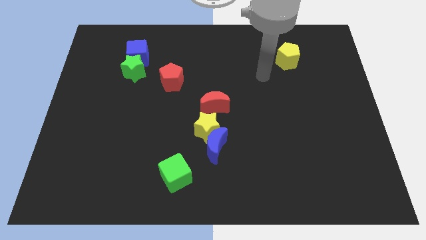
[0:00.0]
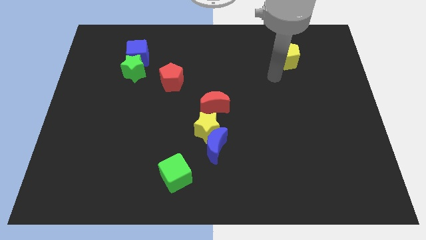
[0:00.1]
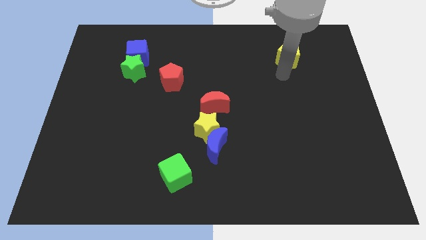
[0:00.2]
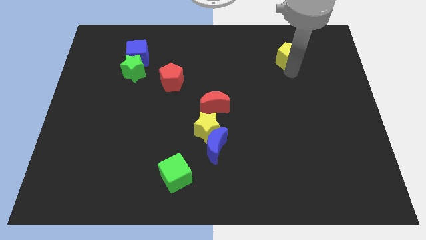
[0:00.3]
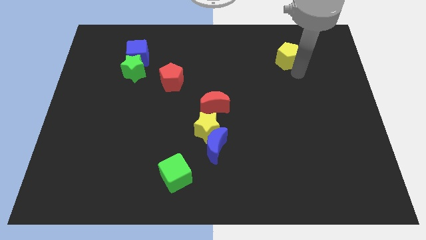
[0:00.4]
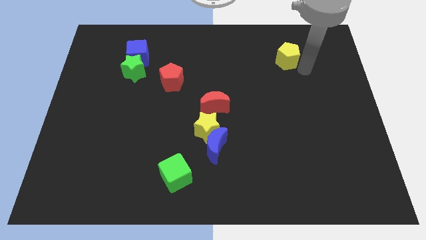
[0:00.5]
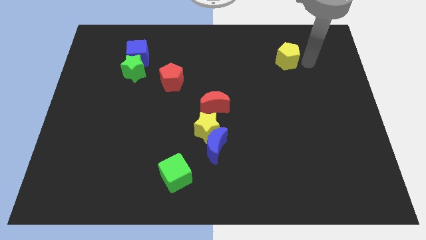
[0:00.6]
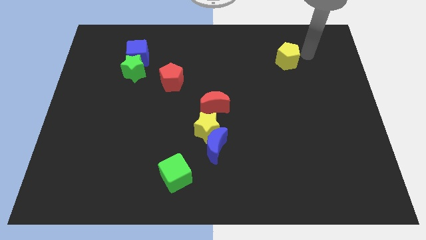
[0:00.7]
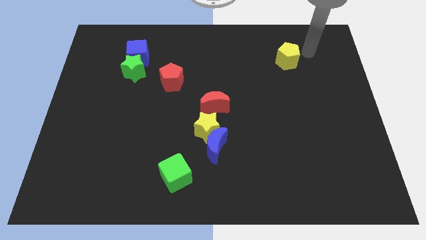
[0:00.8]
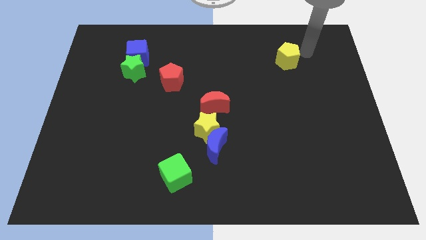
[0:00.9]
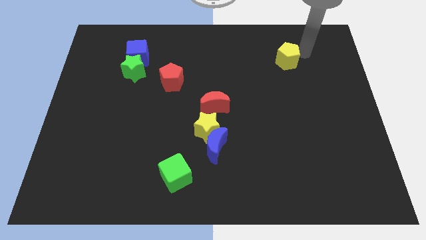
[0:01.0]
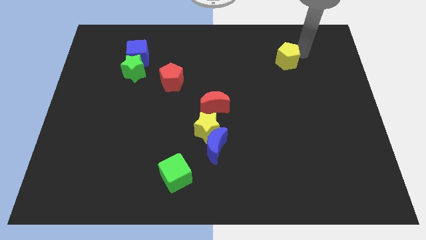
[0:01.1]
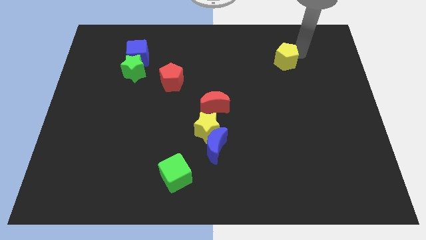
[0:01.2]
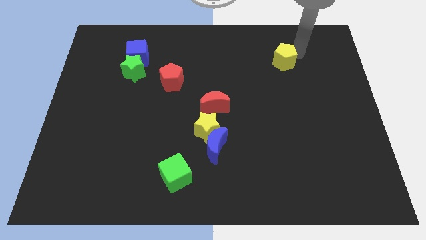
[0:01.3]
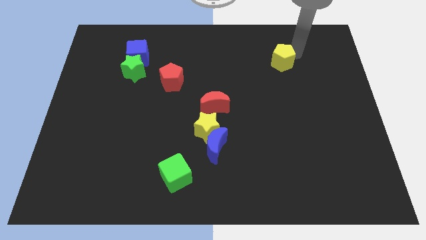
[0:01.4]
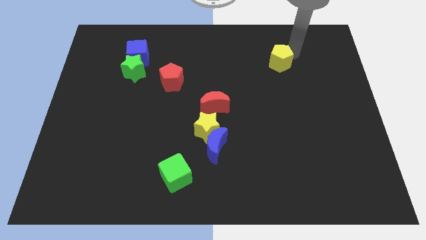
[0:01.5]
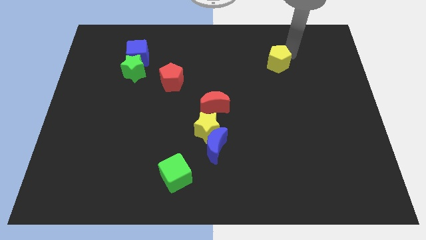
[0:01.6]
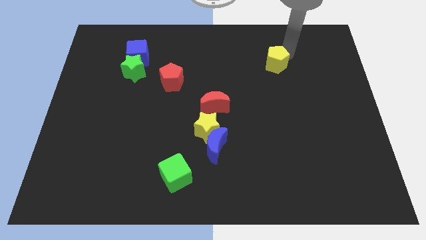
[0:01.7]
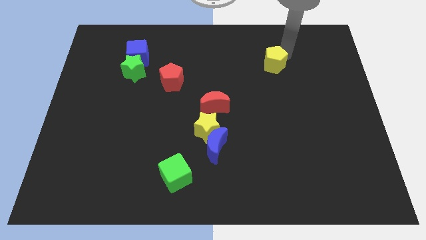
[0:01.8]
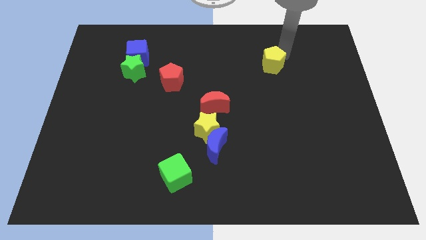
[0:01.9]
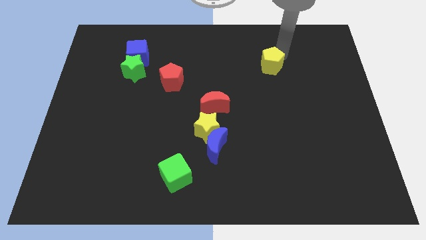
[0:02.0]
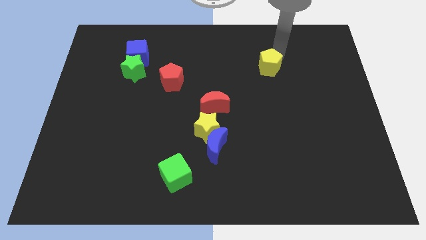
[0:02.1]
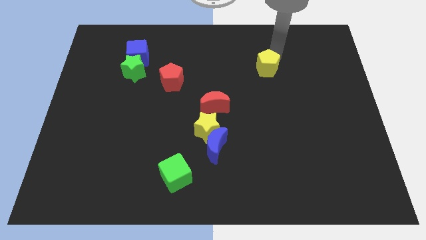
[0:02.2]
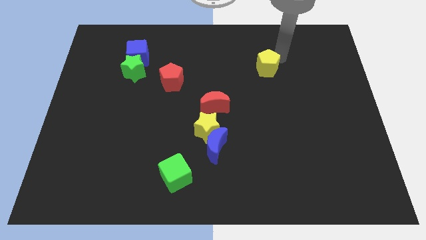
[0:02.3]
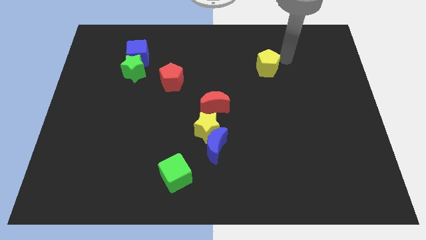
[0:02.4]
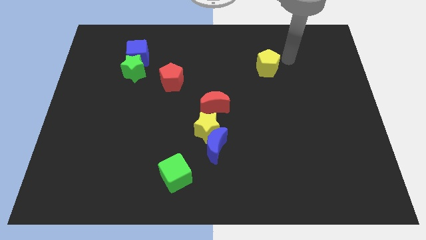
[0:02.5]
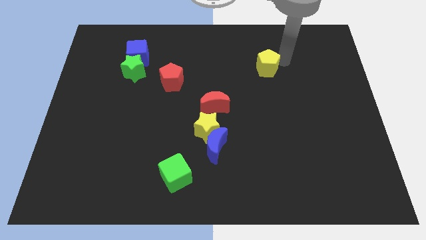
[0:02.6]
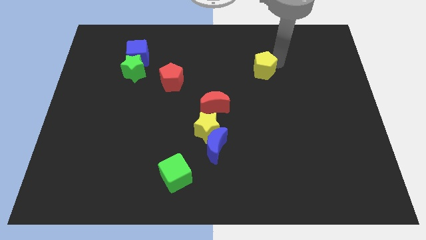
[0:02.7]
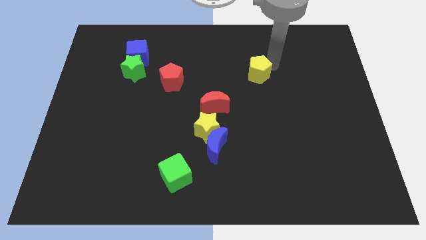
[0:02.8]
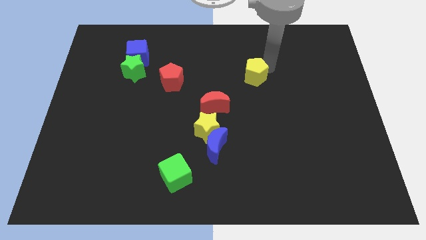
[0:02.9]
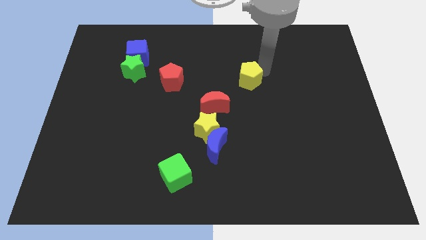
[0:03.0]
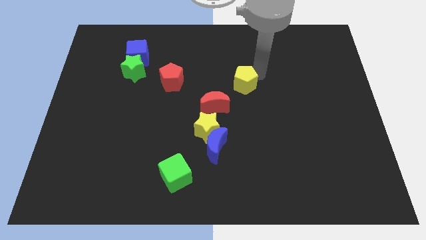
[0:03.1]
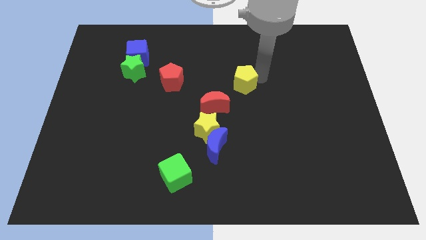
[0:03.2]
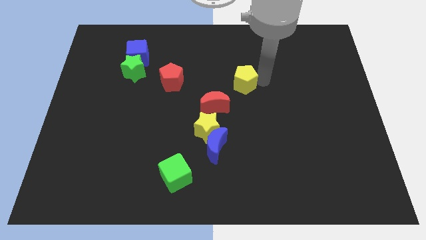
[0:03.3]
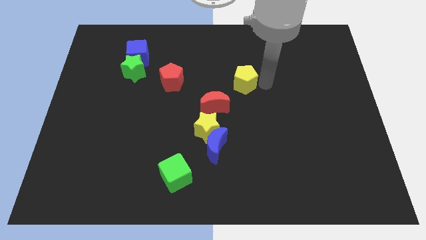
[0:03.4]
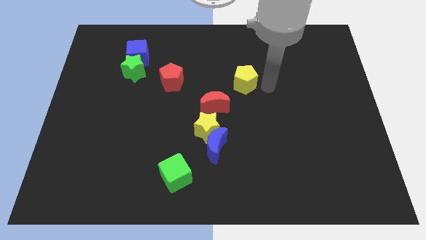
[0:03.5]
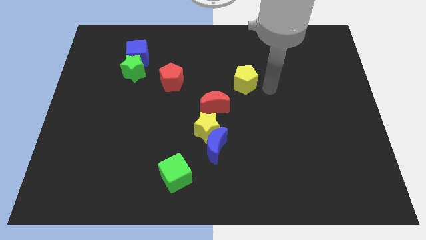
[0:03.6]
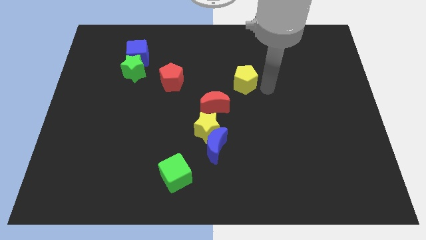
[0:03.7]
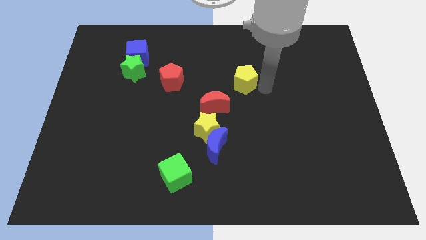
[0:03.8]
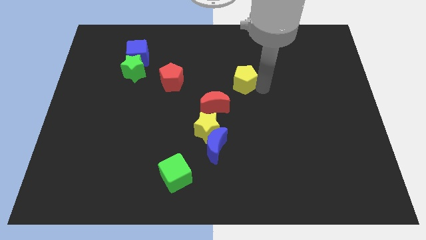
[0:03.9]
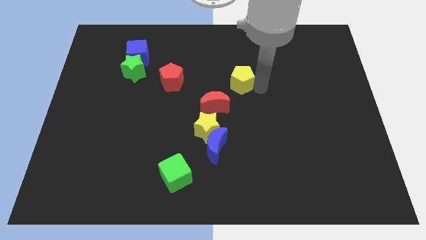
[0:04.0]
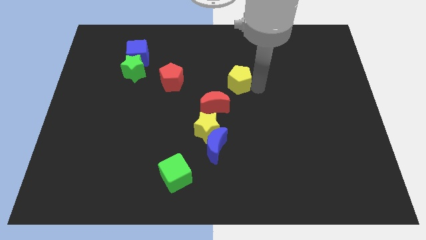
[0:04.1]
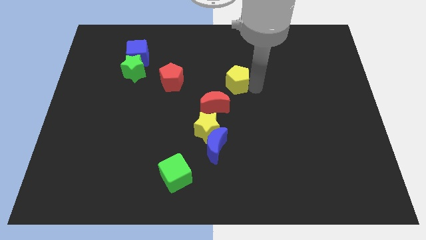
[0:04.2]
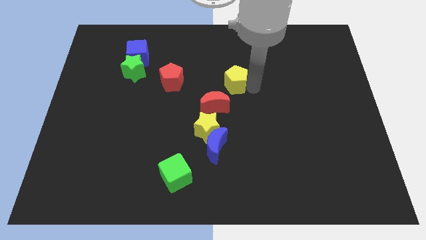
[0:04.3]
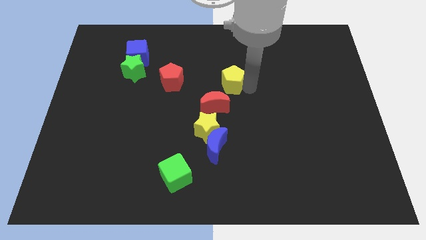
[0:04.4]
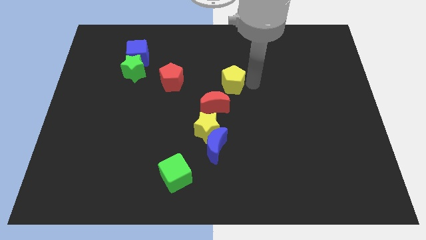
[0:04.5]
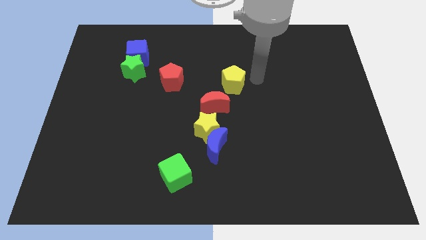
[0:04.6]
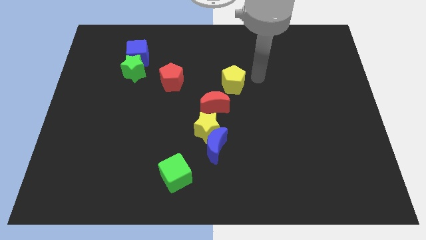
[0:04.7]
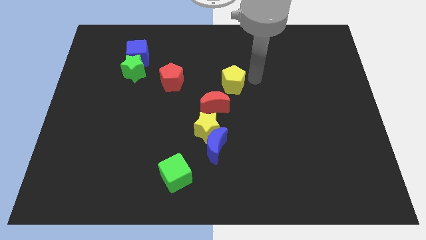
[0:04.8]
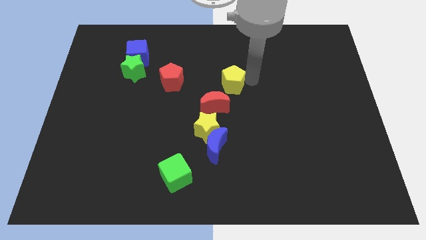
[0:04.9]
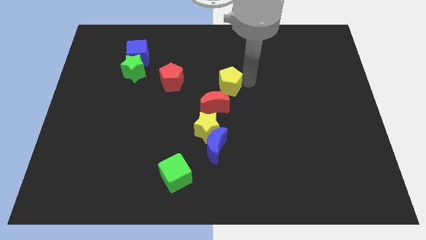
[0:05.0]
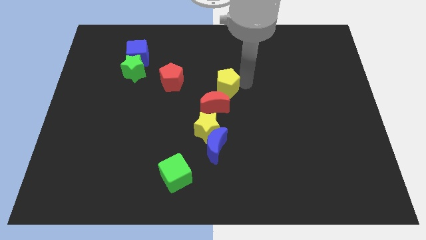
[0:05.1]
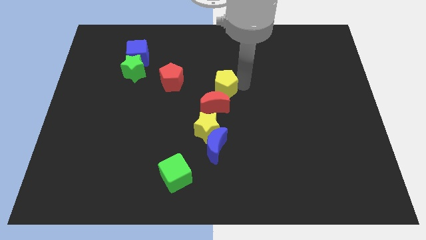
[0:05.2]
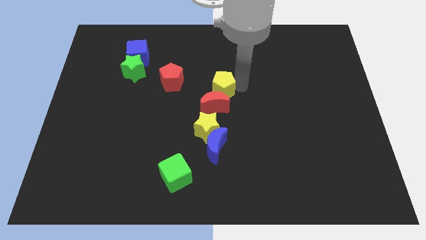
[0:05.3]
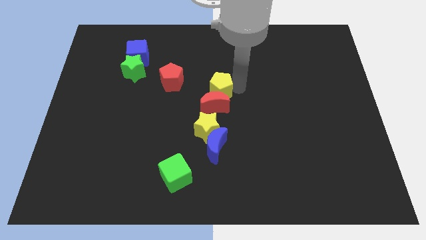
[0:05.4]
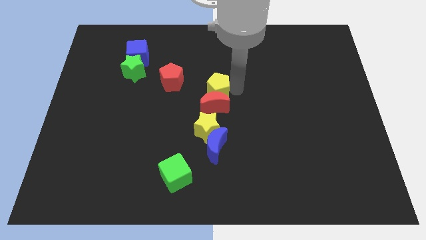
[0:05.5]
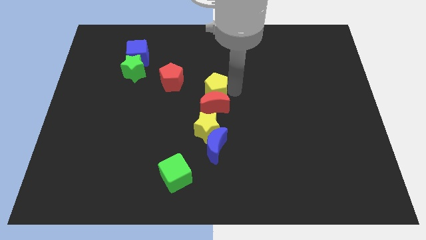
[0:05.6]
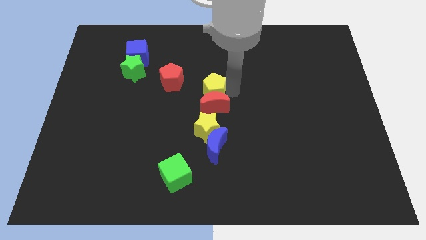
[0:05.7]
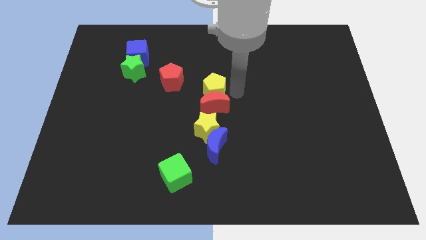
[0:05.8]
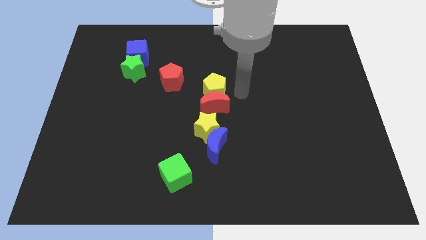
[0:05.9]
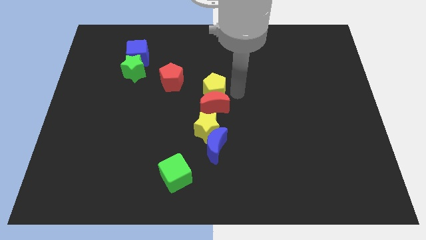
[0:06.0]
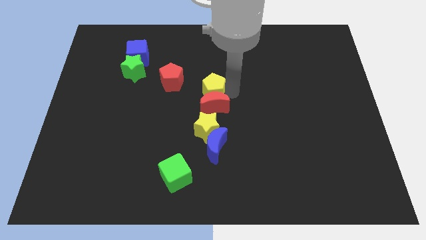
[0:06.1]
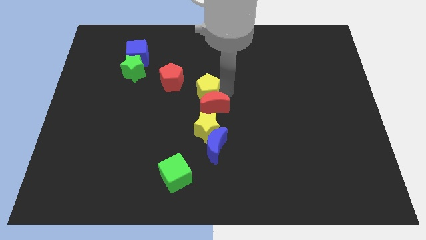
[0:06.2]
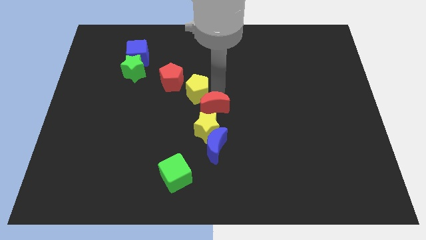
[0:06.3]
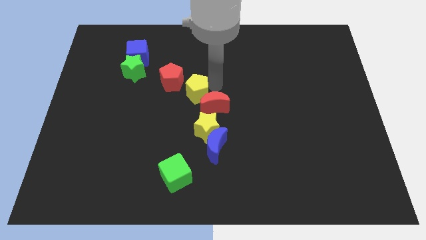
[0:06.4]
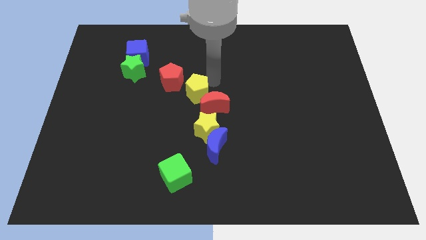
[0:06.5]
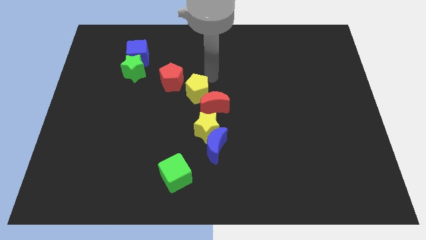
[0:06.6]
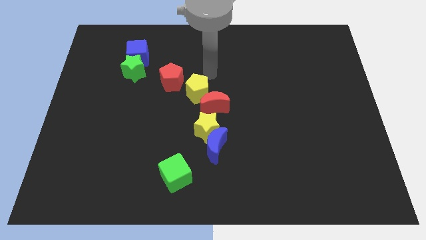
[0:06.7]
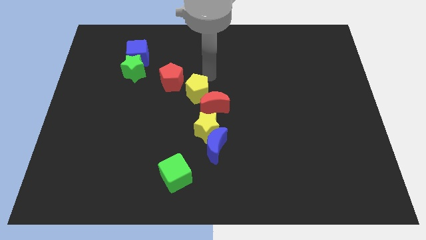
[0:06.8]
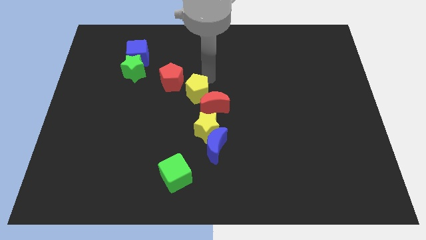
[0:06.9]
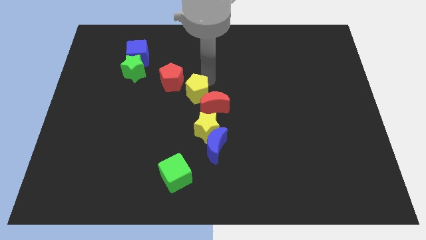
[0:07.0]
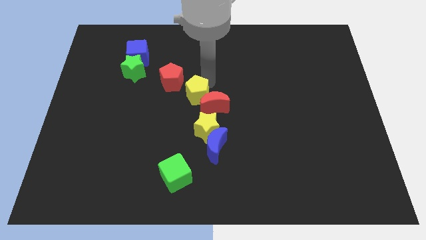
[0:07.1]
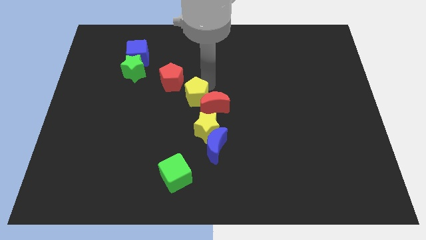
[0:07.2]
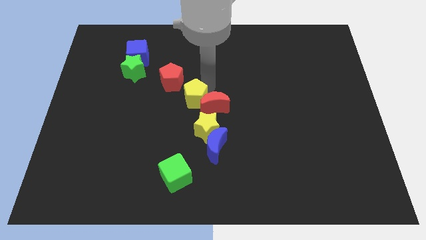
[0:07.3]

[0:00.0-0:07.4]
put the yellow pentagon diagonally up and to the left of the yellow star
